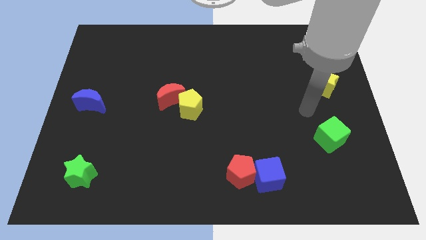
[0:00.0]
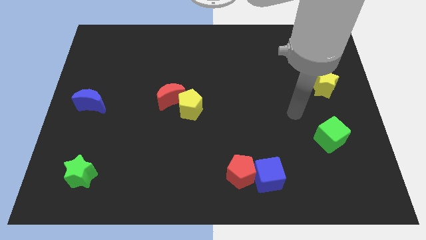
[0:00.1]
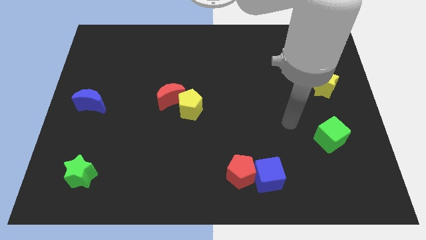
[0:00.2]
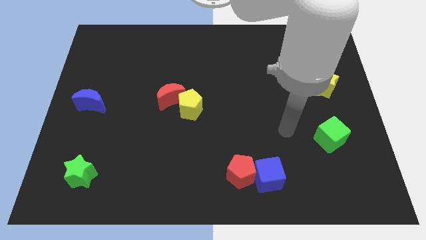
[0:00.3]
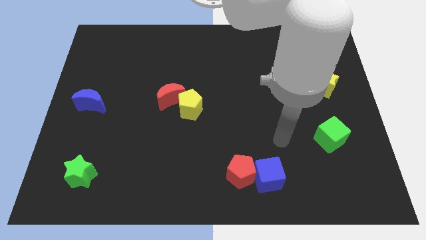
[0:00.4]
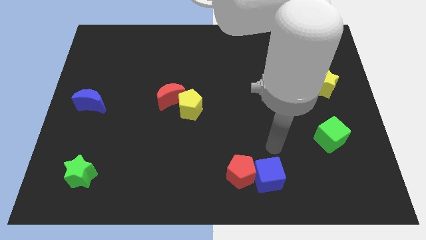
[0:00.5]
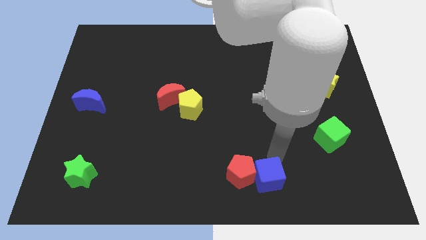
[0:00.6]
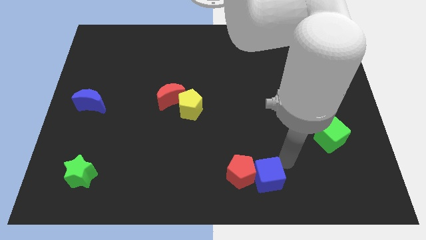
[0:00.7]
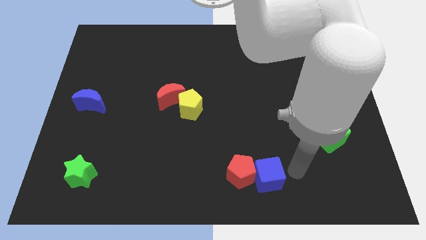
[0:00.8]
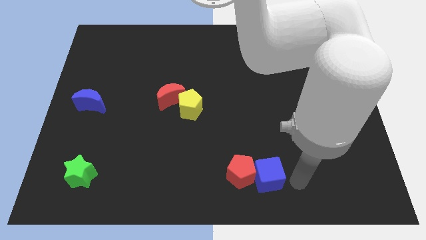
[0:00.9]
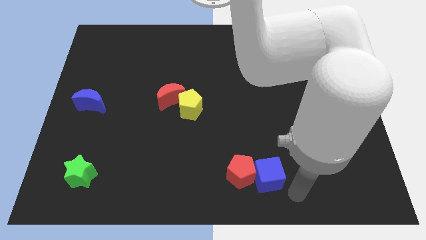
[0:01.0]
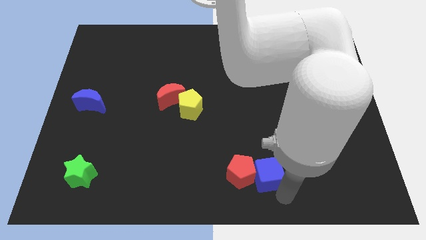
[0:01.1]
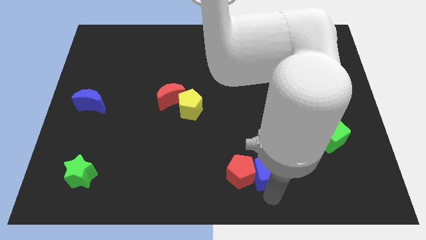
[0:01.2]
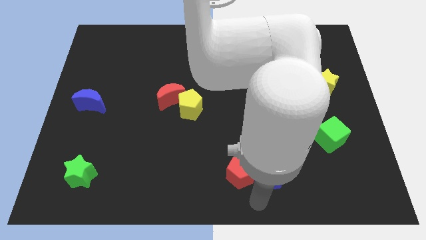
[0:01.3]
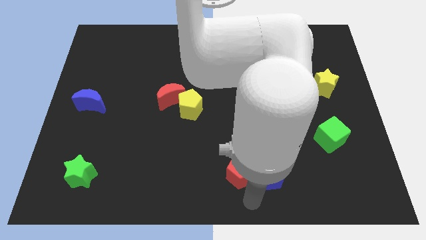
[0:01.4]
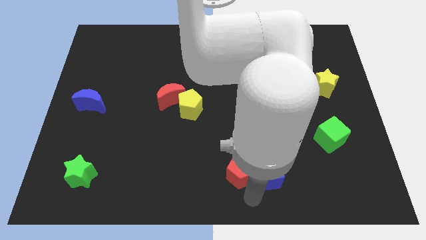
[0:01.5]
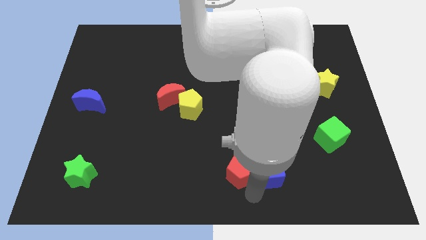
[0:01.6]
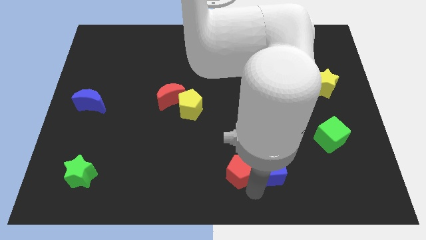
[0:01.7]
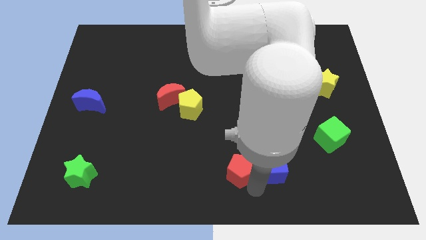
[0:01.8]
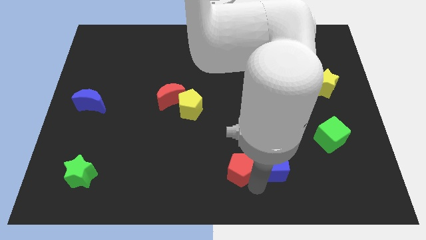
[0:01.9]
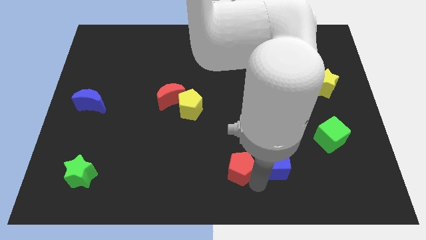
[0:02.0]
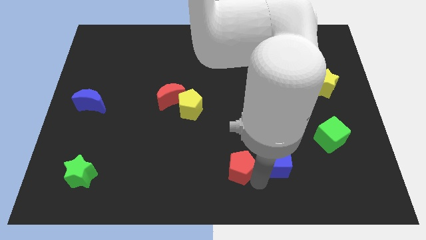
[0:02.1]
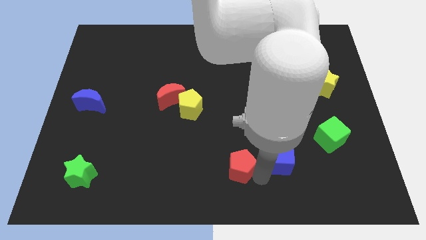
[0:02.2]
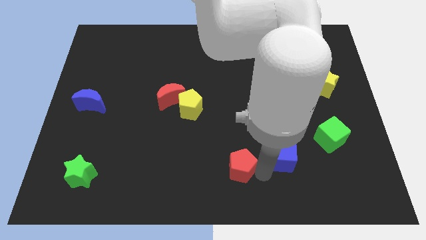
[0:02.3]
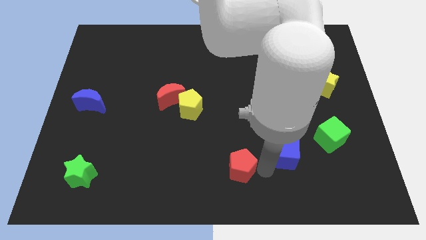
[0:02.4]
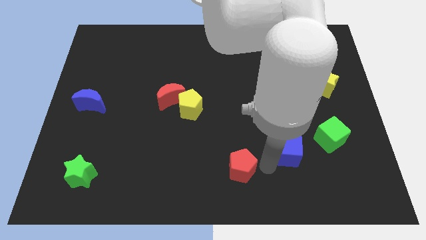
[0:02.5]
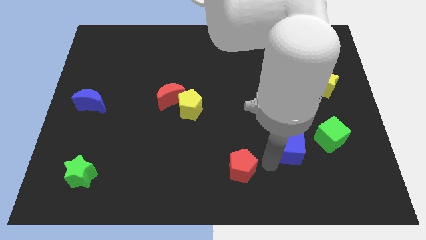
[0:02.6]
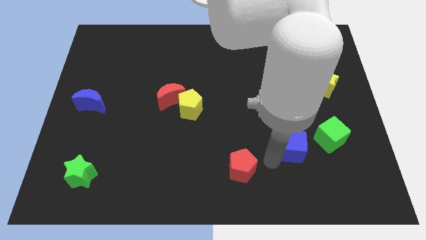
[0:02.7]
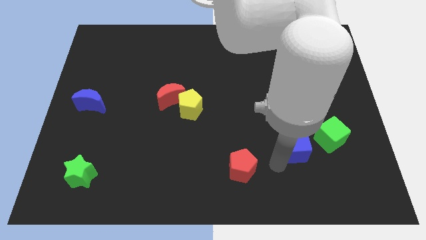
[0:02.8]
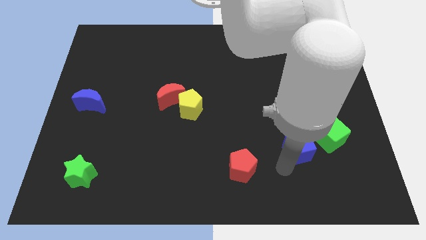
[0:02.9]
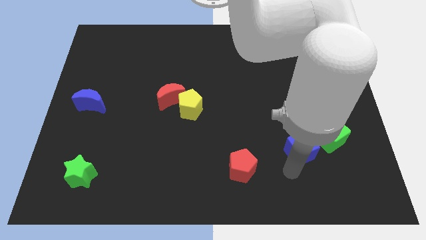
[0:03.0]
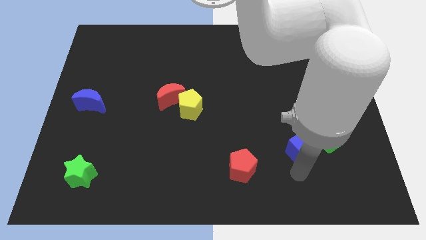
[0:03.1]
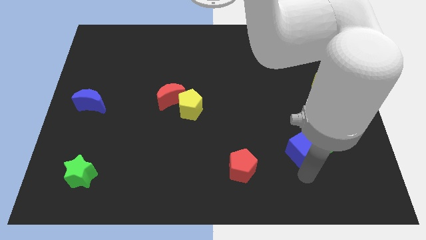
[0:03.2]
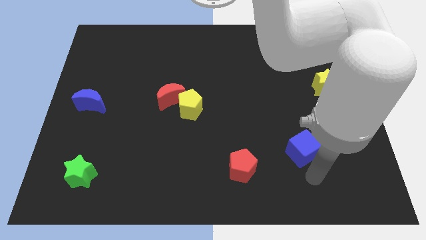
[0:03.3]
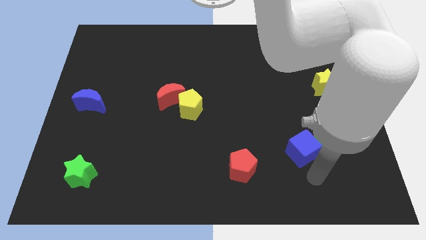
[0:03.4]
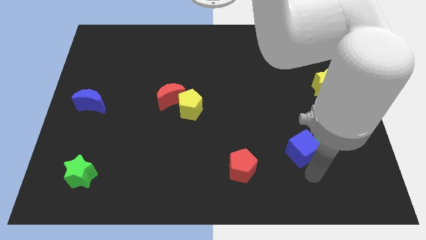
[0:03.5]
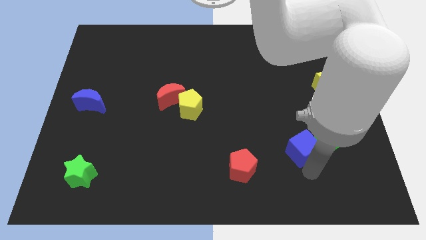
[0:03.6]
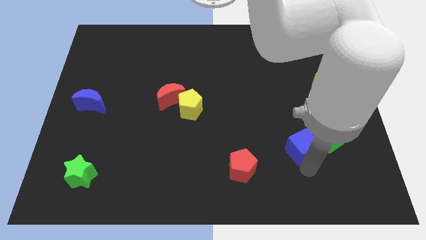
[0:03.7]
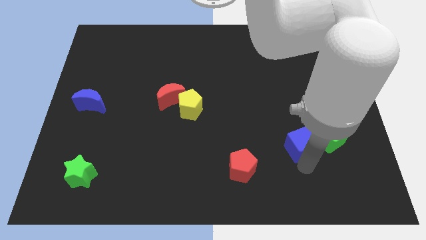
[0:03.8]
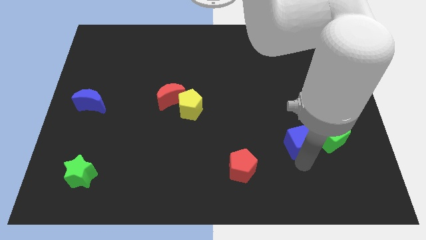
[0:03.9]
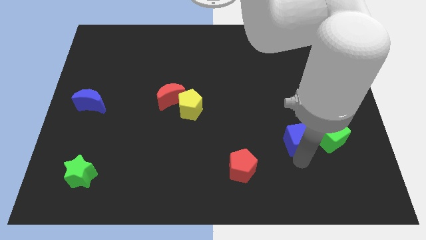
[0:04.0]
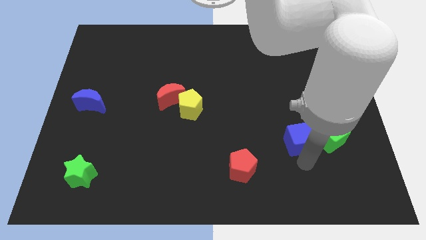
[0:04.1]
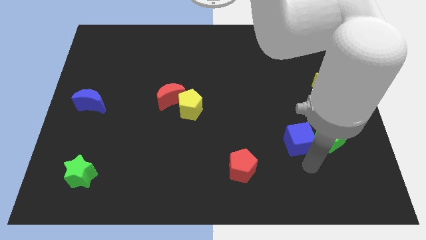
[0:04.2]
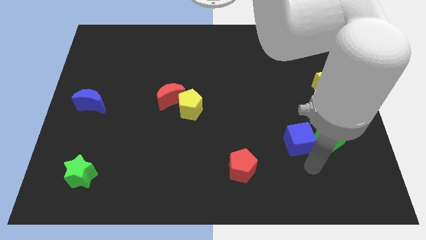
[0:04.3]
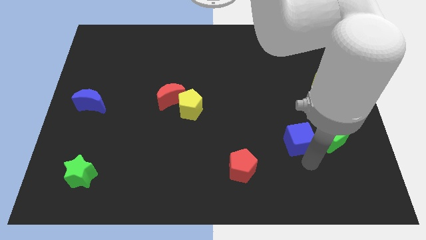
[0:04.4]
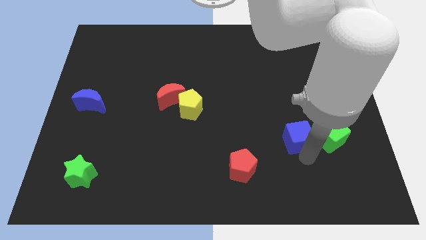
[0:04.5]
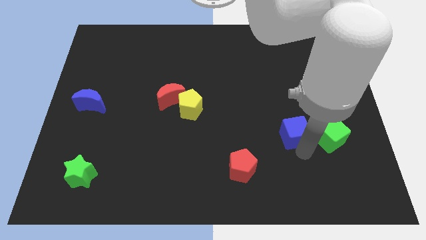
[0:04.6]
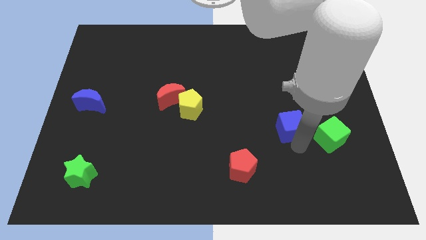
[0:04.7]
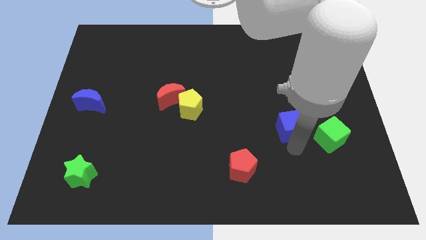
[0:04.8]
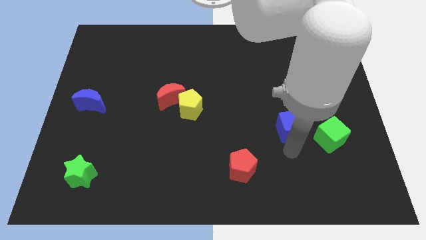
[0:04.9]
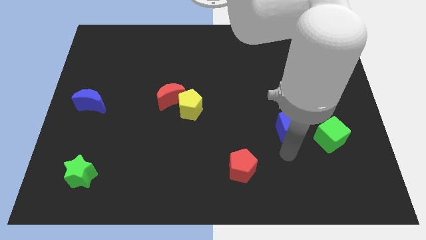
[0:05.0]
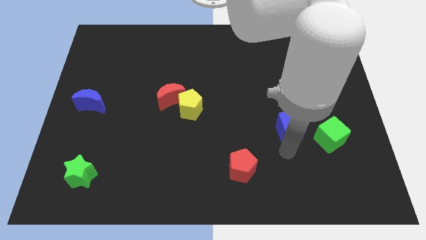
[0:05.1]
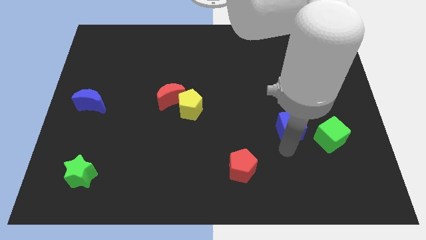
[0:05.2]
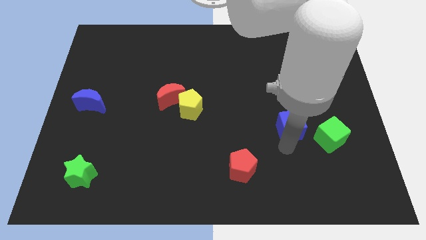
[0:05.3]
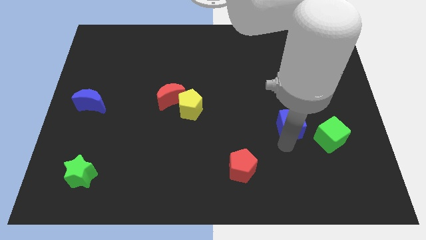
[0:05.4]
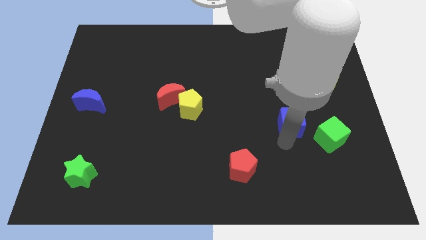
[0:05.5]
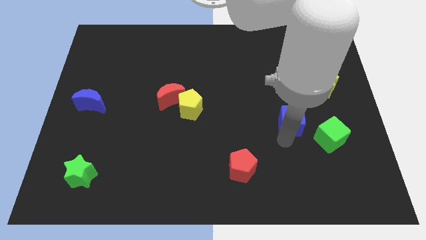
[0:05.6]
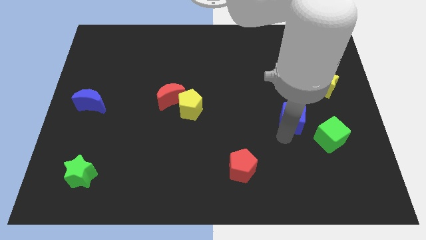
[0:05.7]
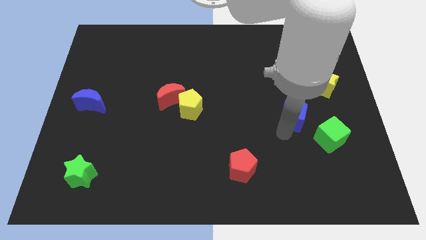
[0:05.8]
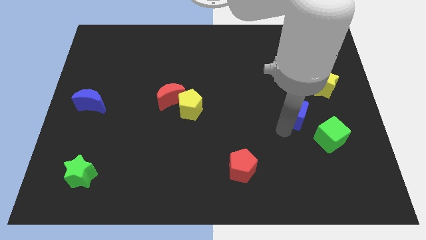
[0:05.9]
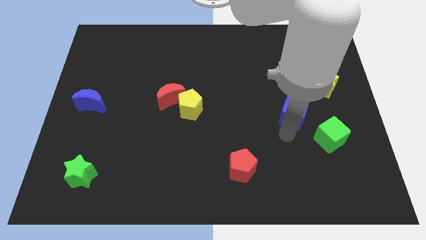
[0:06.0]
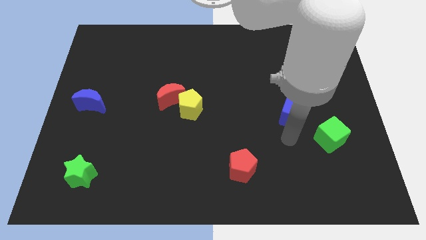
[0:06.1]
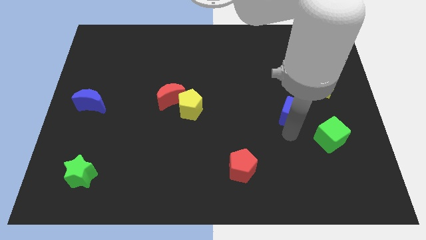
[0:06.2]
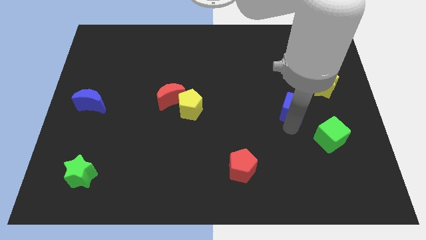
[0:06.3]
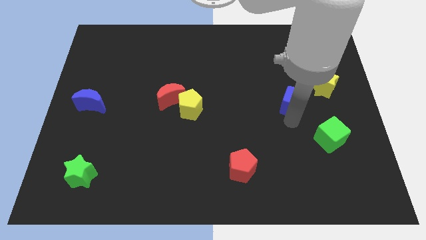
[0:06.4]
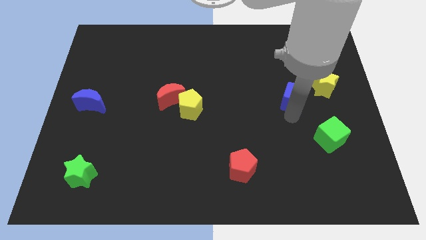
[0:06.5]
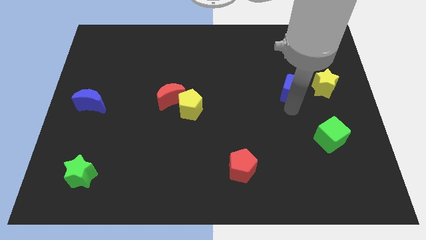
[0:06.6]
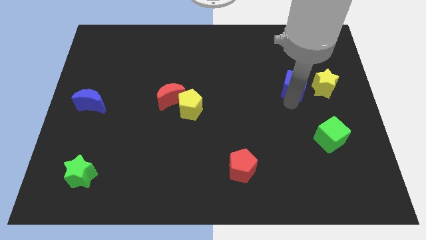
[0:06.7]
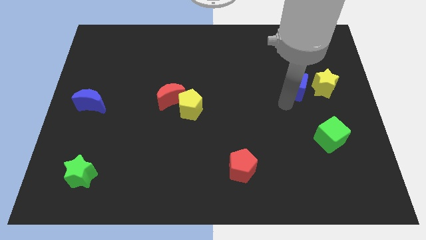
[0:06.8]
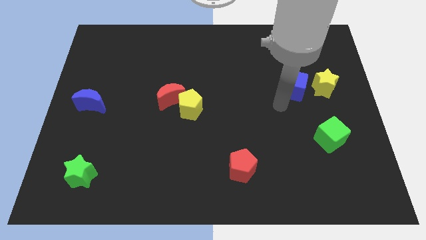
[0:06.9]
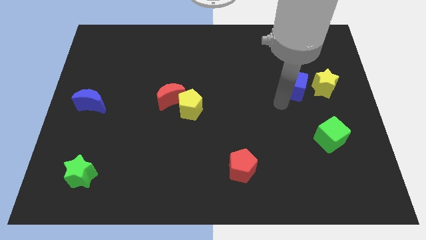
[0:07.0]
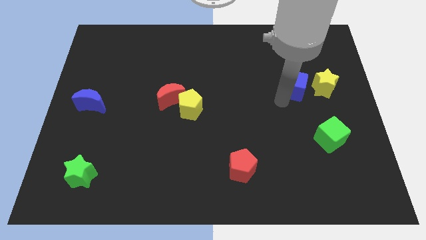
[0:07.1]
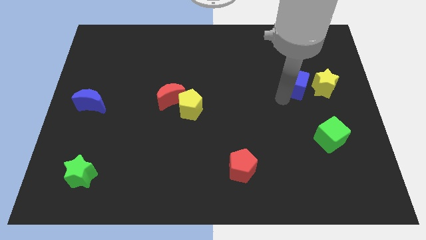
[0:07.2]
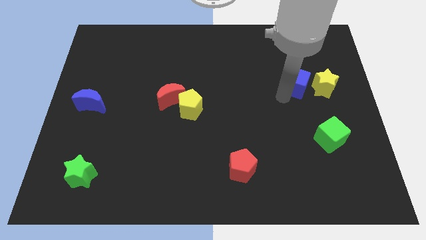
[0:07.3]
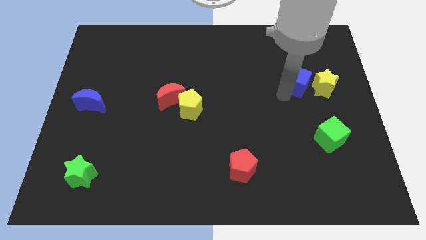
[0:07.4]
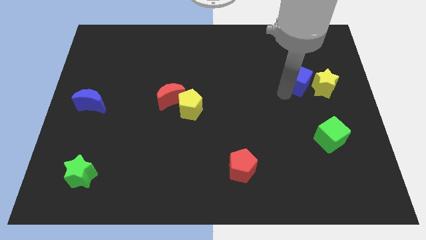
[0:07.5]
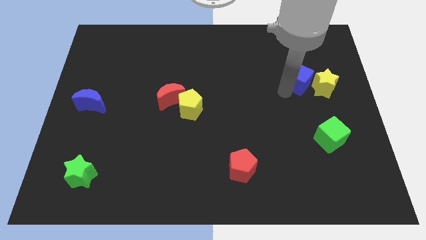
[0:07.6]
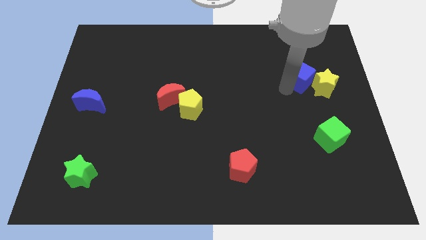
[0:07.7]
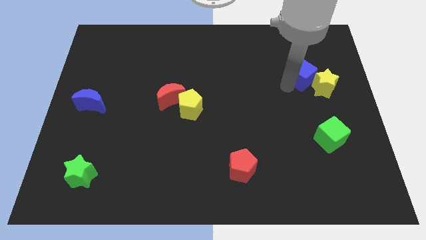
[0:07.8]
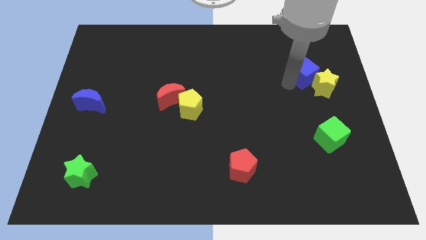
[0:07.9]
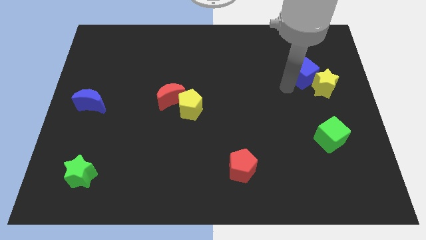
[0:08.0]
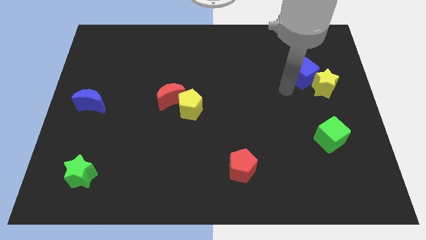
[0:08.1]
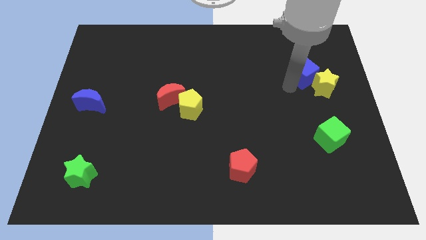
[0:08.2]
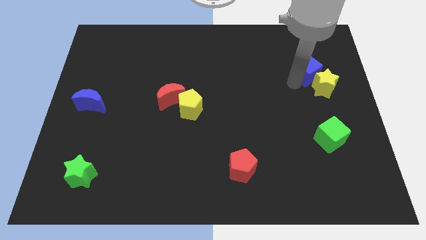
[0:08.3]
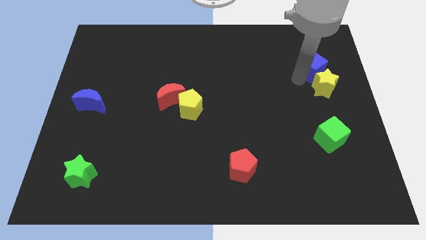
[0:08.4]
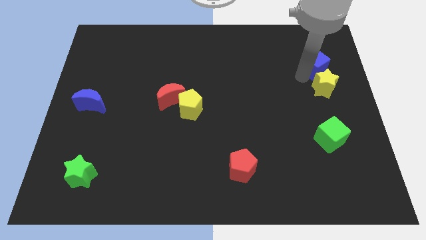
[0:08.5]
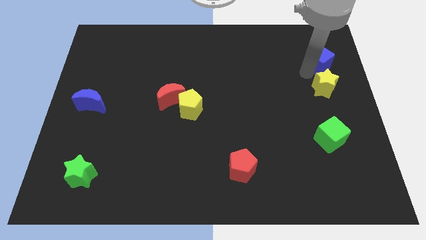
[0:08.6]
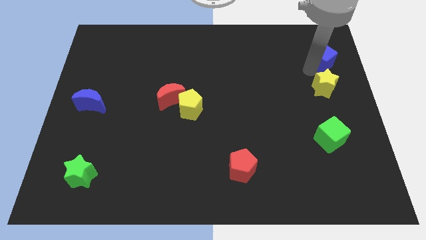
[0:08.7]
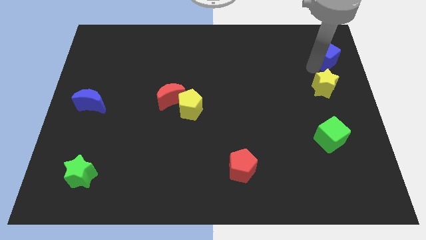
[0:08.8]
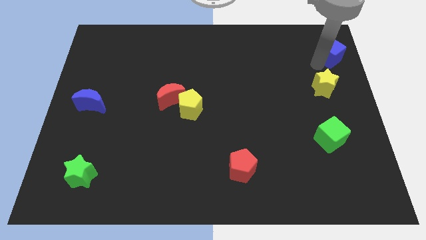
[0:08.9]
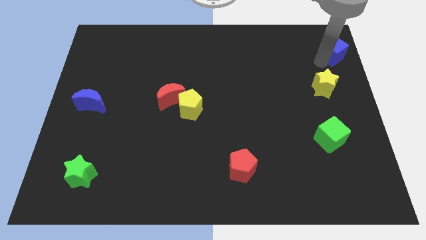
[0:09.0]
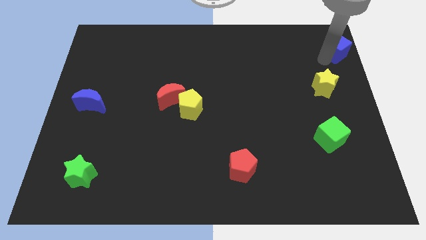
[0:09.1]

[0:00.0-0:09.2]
slide the blue cube to the top right of the board
